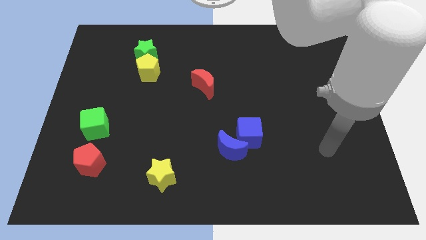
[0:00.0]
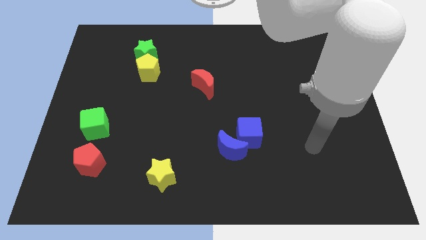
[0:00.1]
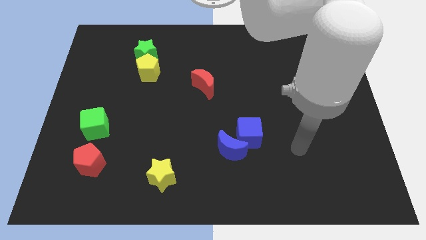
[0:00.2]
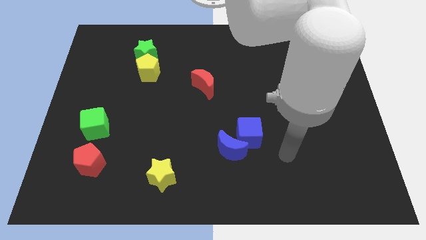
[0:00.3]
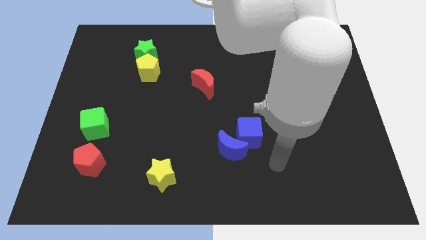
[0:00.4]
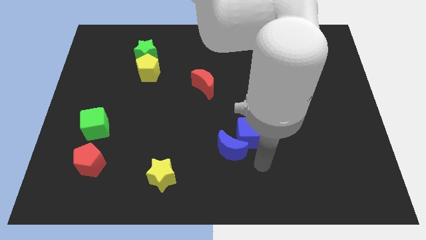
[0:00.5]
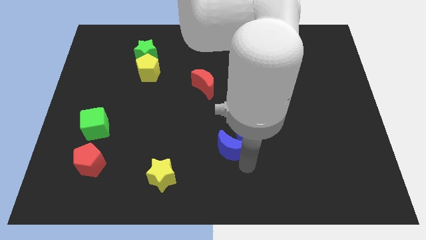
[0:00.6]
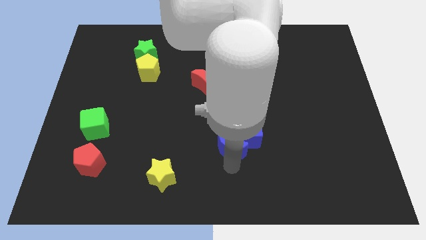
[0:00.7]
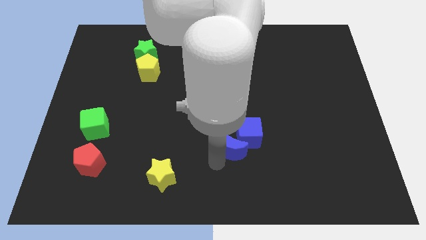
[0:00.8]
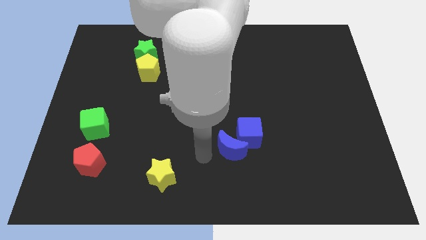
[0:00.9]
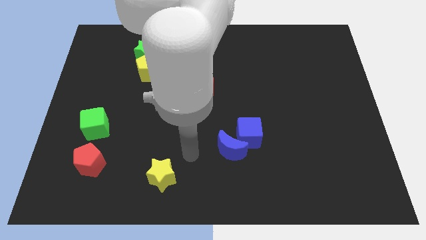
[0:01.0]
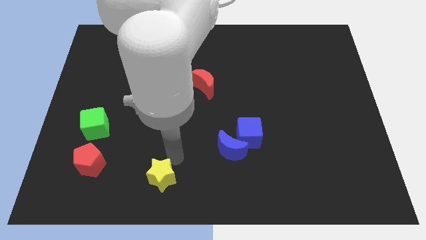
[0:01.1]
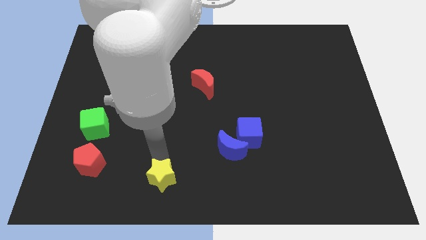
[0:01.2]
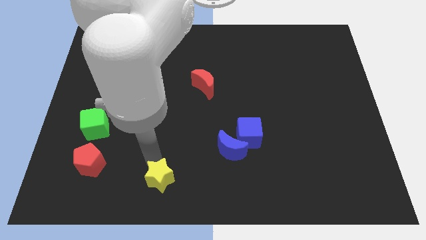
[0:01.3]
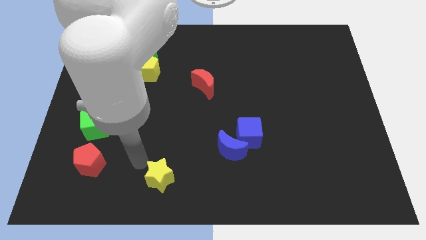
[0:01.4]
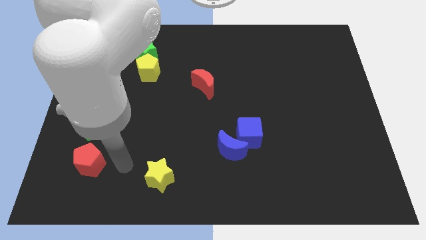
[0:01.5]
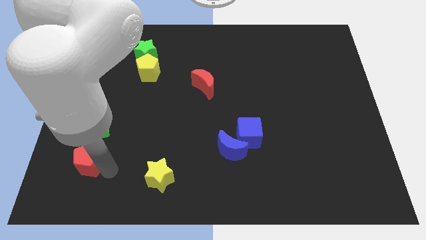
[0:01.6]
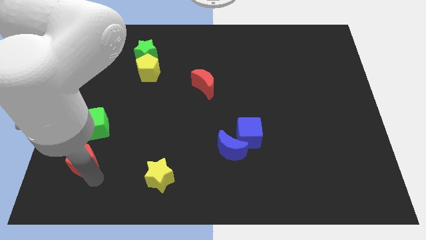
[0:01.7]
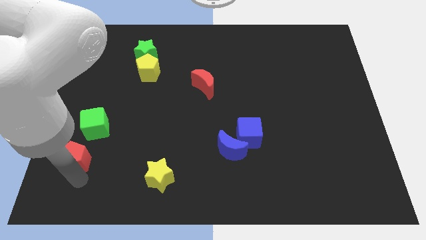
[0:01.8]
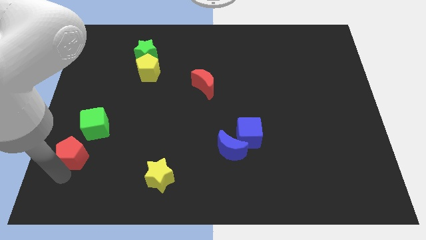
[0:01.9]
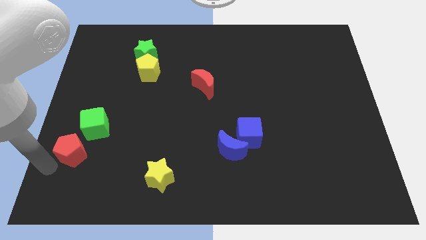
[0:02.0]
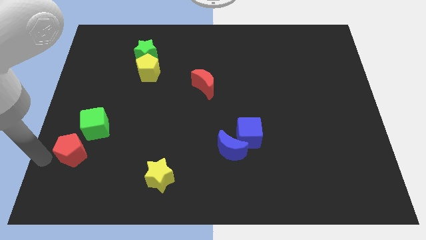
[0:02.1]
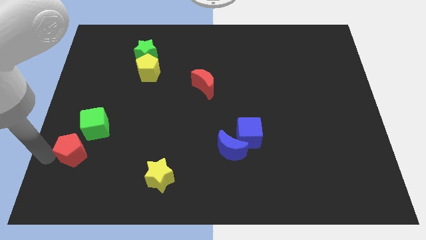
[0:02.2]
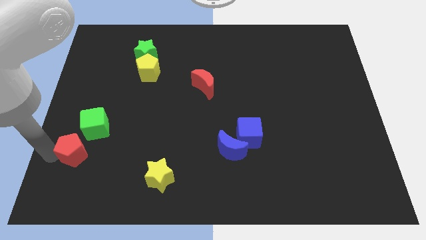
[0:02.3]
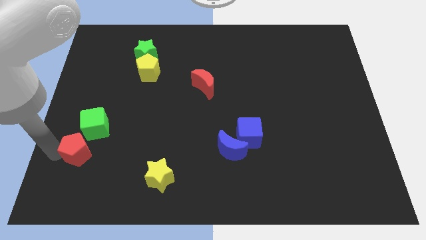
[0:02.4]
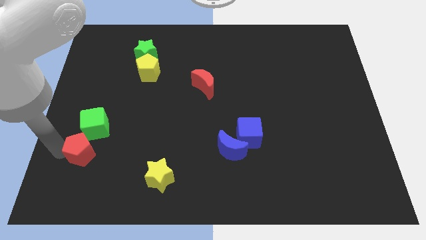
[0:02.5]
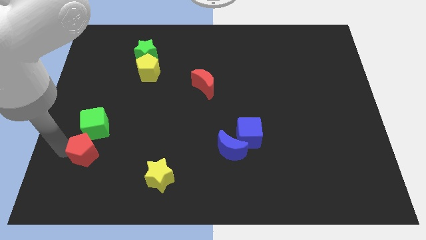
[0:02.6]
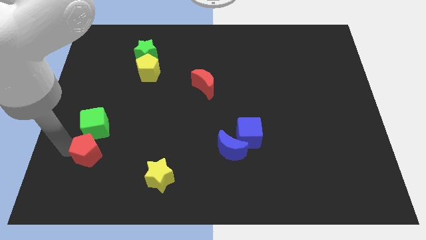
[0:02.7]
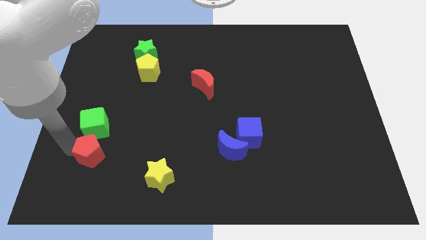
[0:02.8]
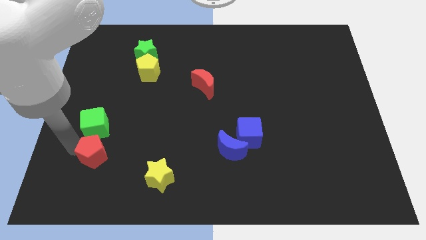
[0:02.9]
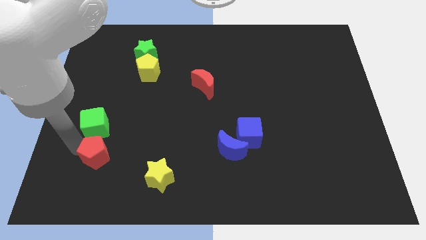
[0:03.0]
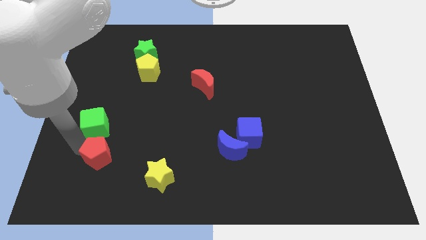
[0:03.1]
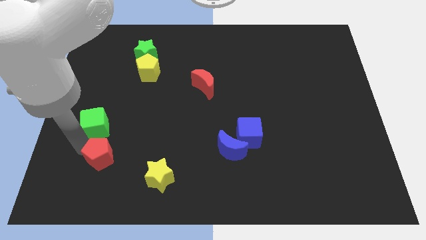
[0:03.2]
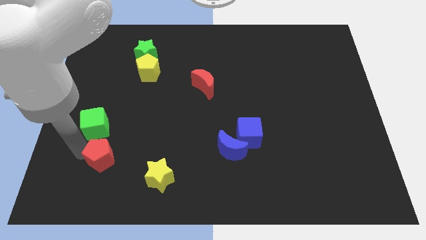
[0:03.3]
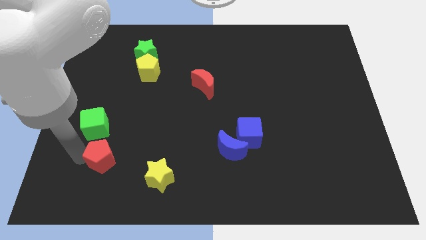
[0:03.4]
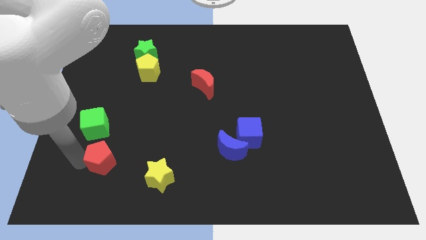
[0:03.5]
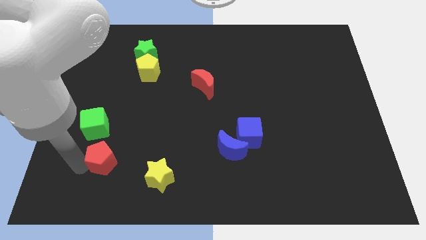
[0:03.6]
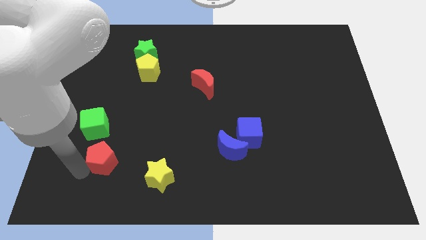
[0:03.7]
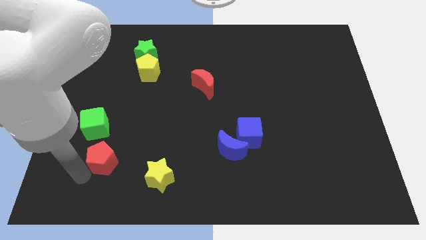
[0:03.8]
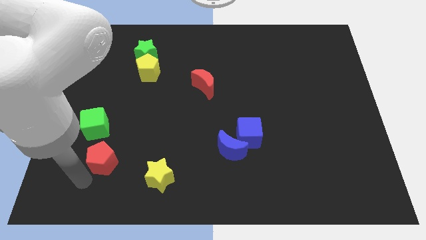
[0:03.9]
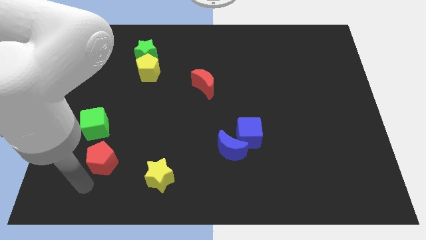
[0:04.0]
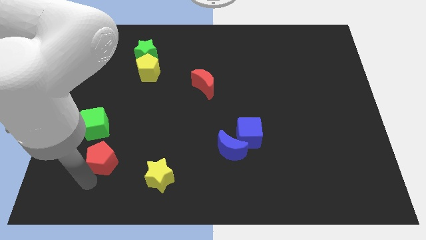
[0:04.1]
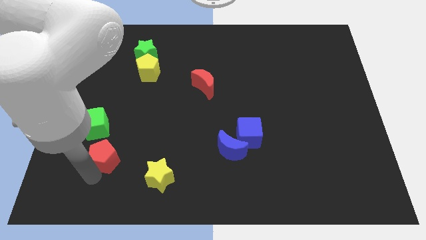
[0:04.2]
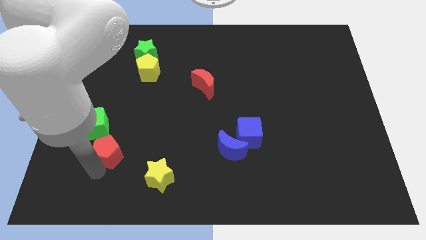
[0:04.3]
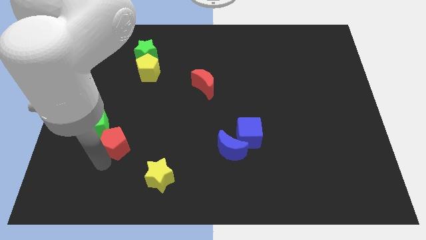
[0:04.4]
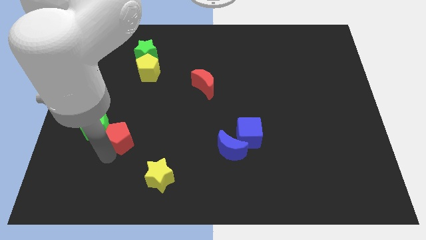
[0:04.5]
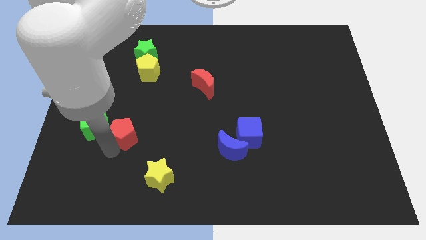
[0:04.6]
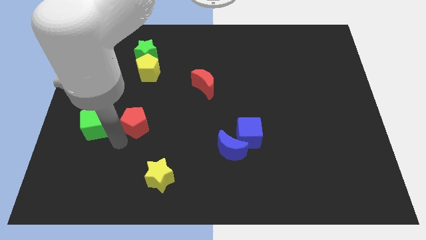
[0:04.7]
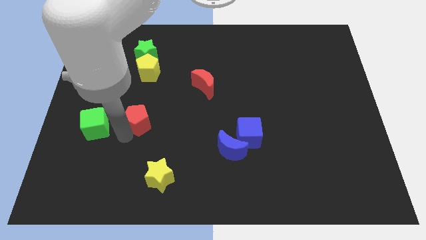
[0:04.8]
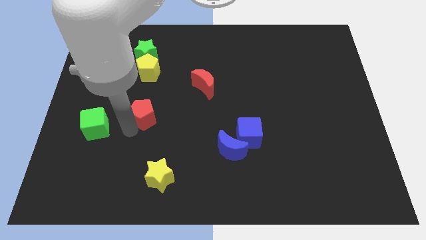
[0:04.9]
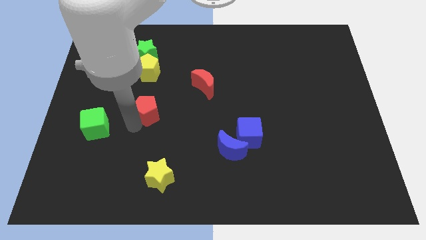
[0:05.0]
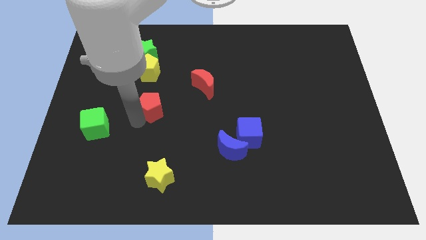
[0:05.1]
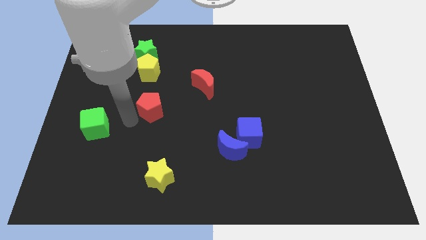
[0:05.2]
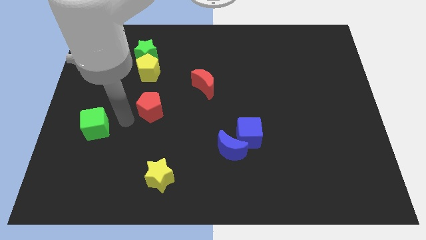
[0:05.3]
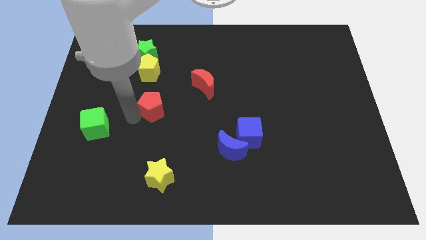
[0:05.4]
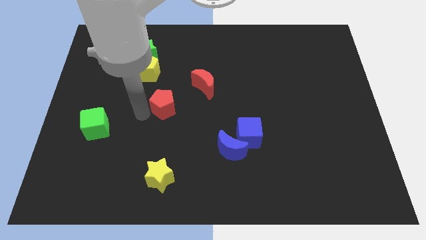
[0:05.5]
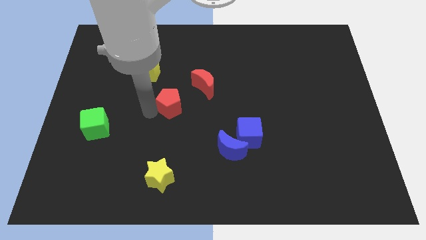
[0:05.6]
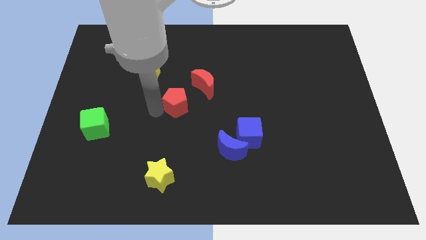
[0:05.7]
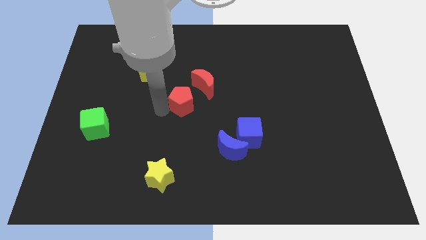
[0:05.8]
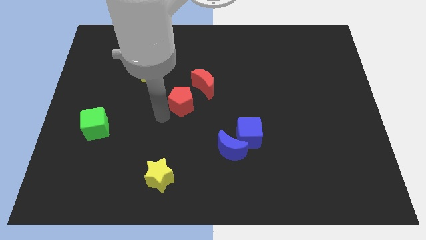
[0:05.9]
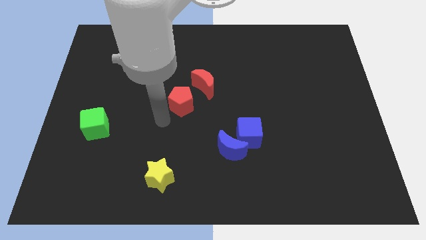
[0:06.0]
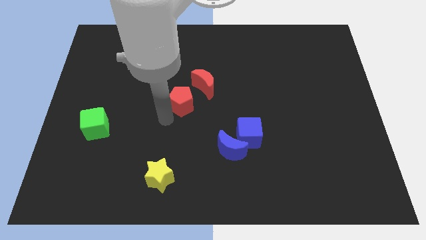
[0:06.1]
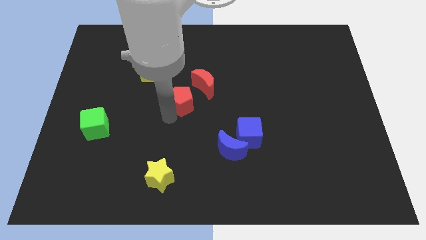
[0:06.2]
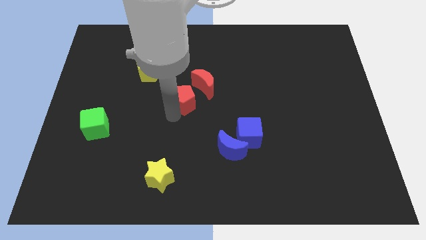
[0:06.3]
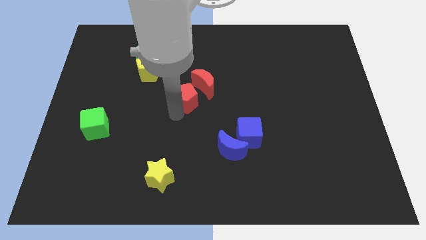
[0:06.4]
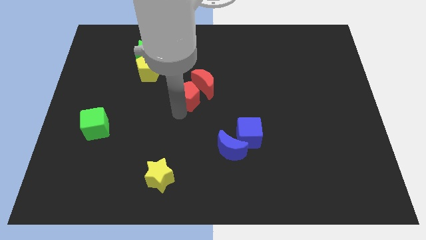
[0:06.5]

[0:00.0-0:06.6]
slide the red pentagon close to the red moon

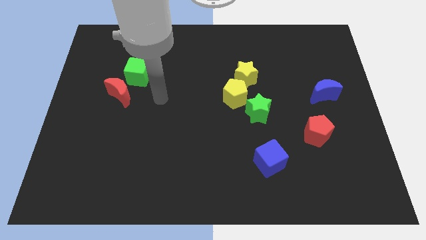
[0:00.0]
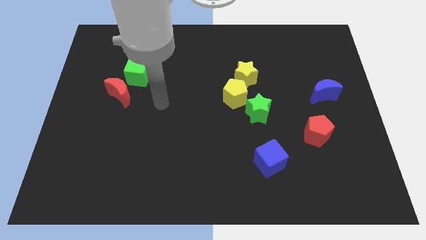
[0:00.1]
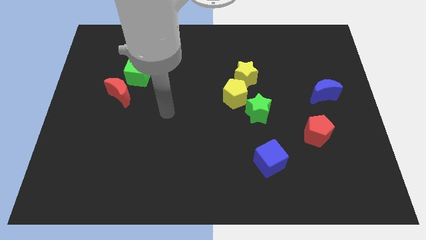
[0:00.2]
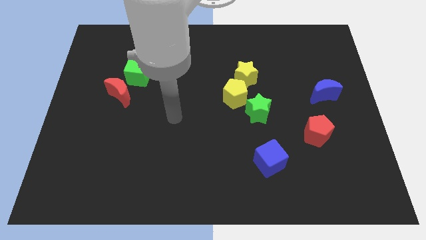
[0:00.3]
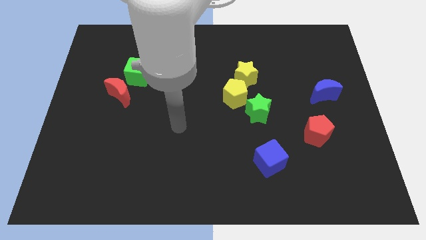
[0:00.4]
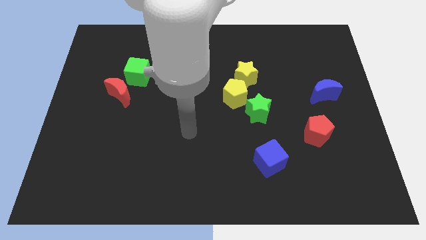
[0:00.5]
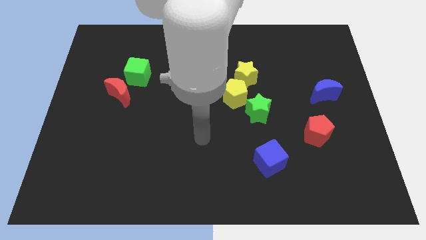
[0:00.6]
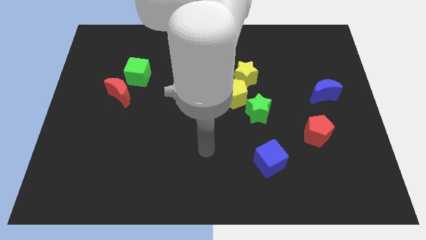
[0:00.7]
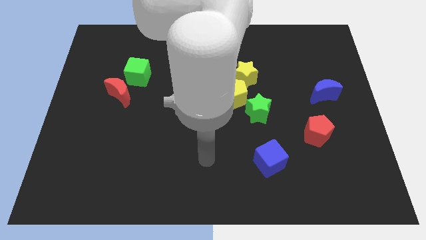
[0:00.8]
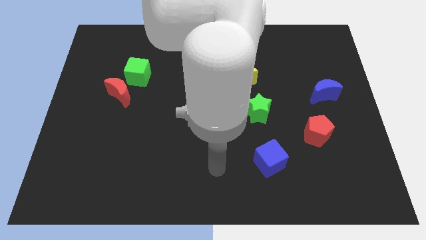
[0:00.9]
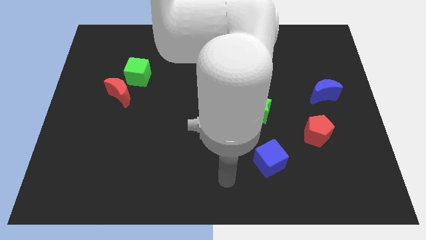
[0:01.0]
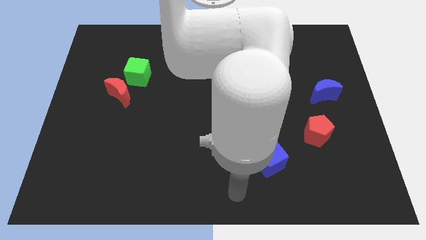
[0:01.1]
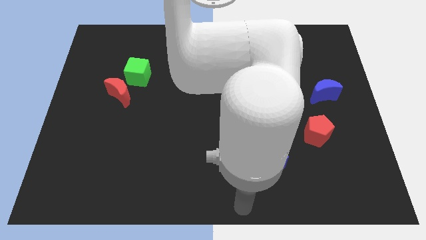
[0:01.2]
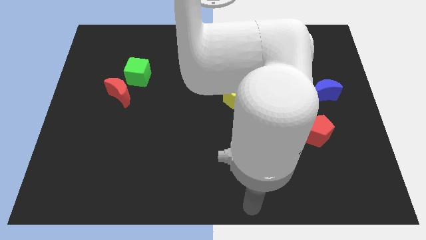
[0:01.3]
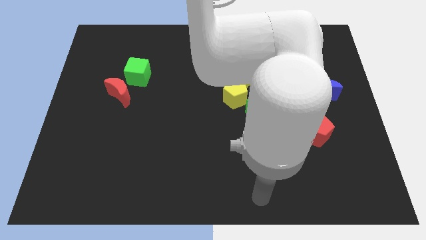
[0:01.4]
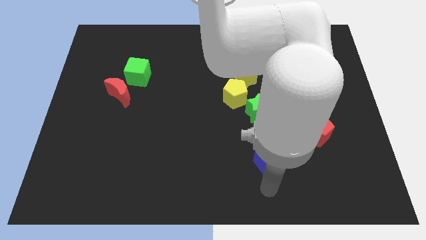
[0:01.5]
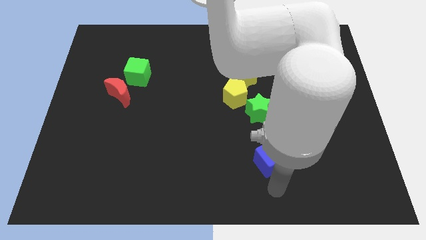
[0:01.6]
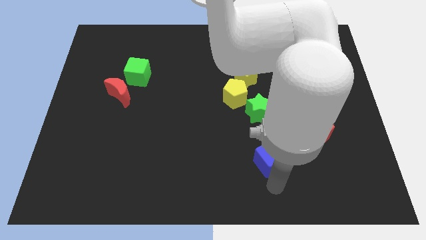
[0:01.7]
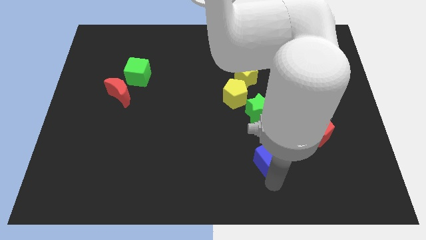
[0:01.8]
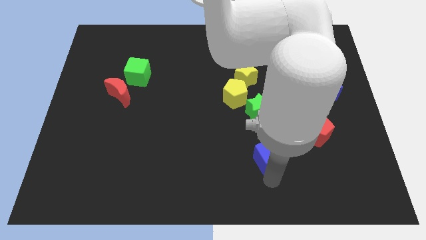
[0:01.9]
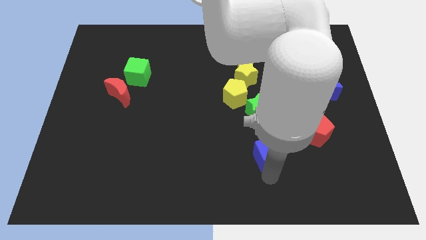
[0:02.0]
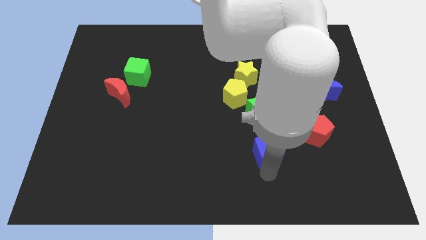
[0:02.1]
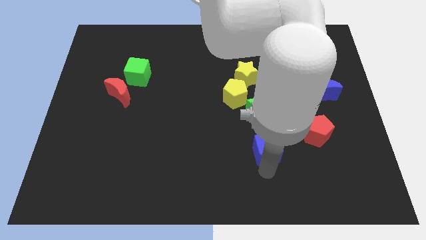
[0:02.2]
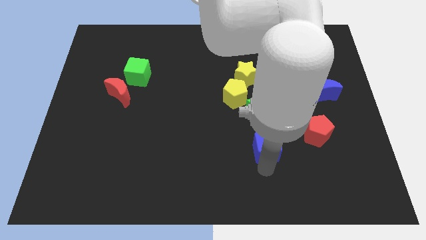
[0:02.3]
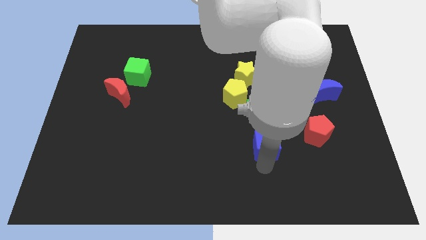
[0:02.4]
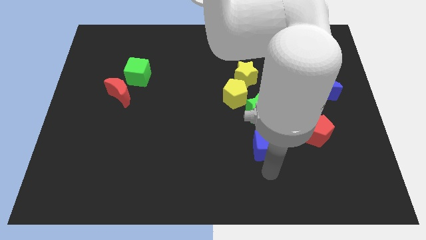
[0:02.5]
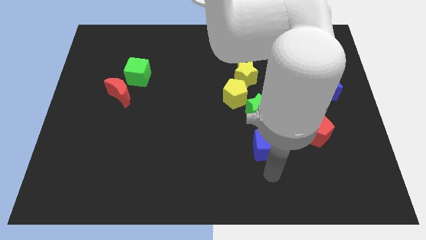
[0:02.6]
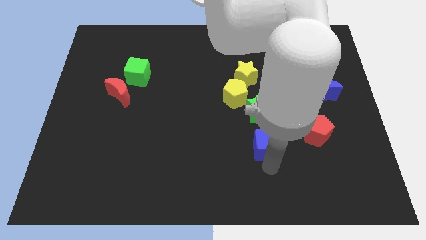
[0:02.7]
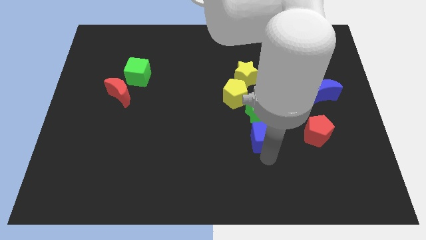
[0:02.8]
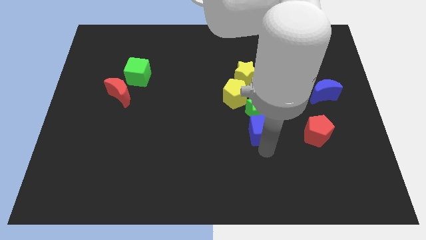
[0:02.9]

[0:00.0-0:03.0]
slide the blue cube close to the green star
